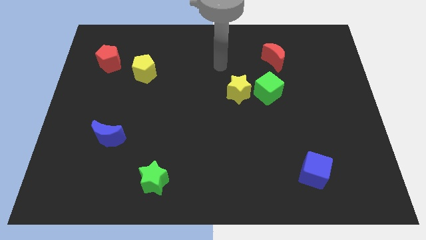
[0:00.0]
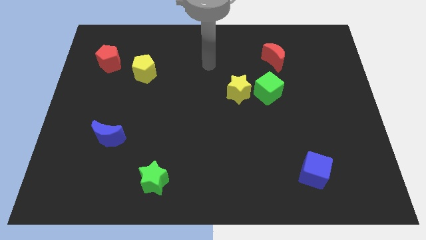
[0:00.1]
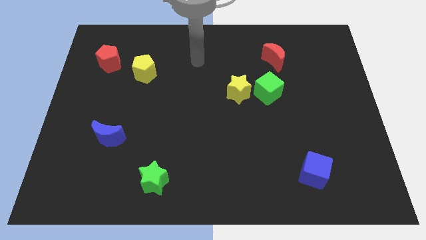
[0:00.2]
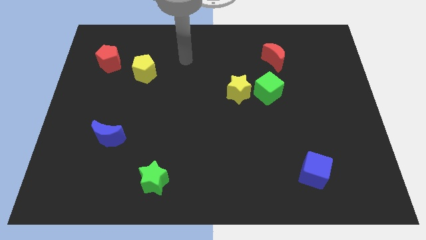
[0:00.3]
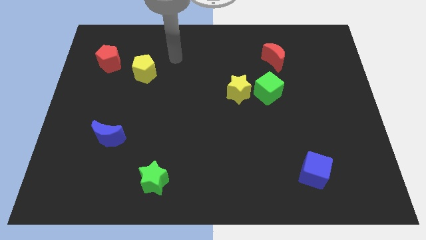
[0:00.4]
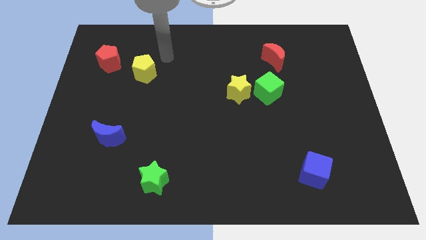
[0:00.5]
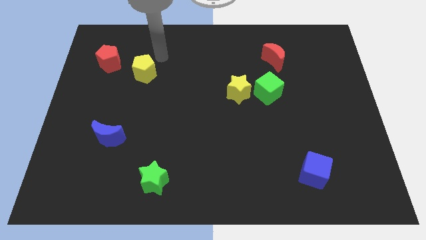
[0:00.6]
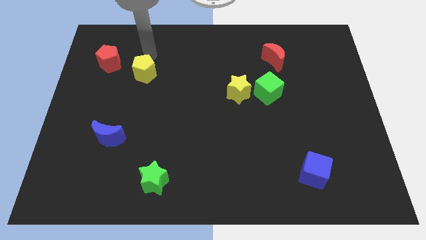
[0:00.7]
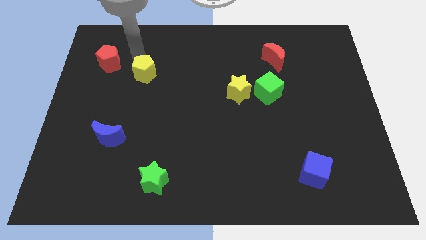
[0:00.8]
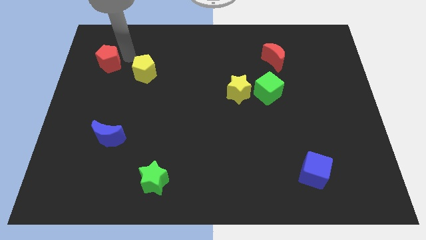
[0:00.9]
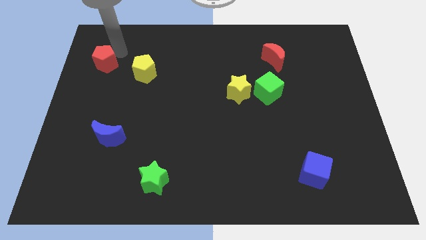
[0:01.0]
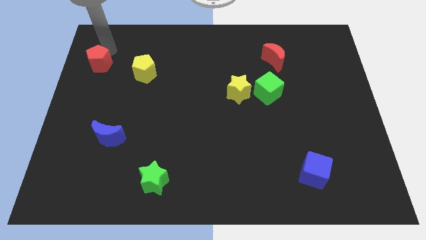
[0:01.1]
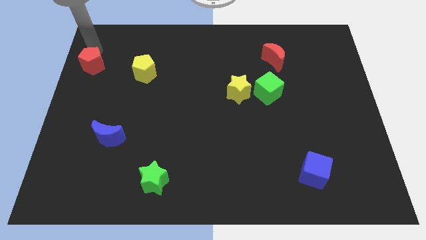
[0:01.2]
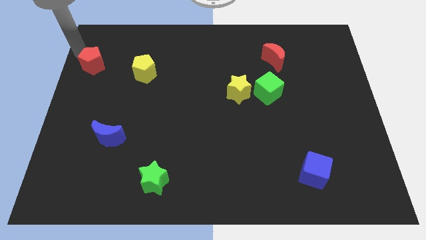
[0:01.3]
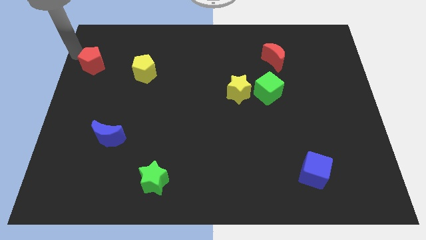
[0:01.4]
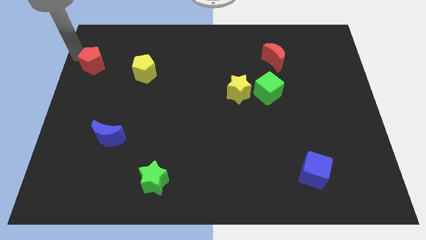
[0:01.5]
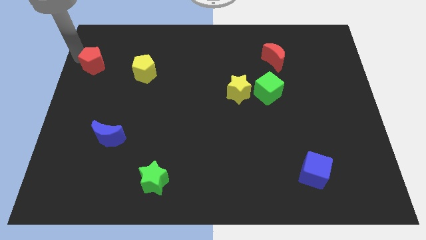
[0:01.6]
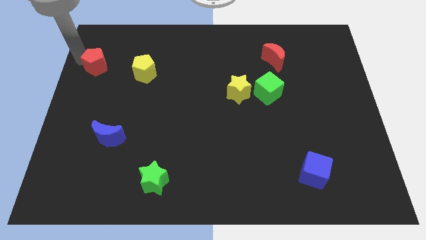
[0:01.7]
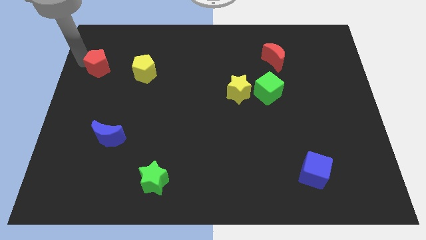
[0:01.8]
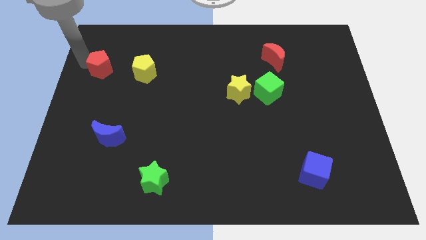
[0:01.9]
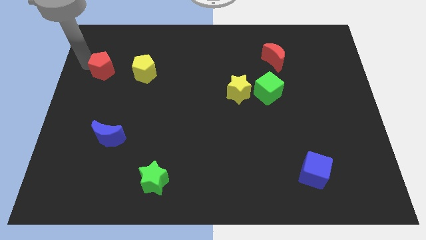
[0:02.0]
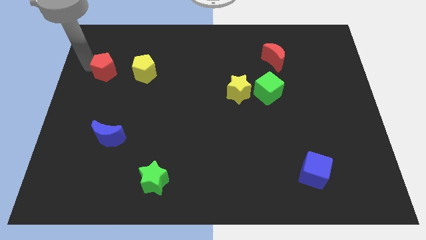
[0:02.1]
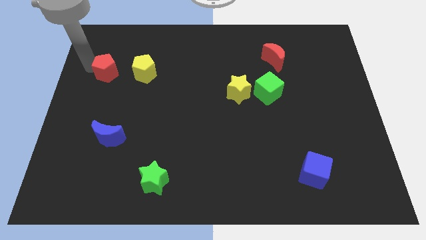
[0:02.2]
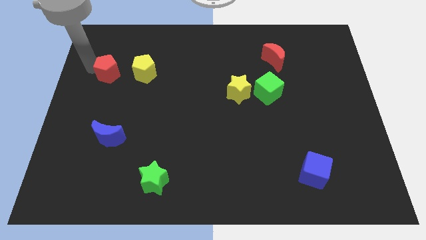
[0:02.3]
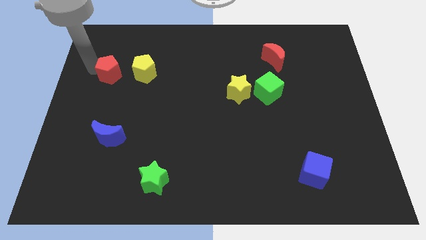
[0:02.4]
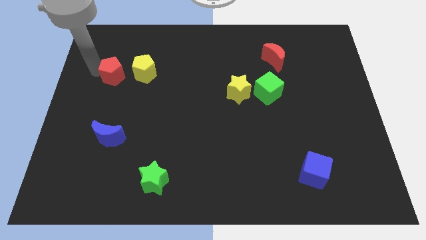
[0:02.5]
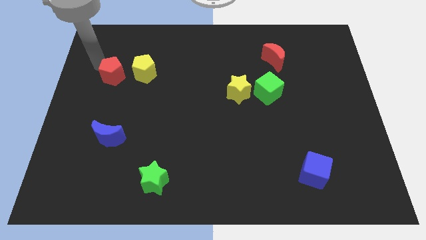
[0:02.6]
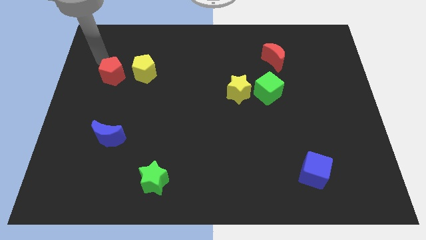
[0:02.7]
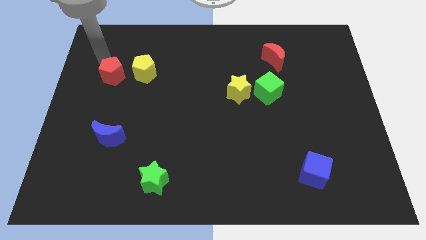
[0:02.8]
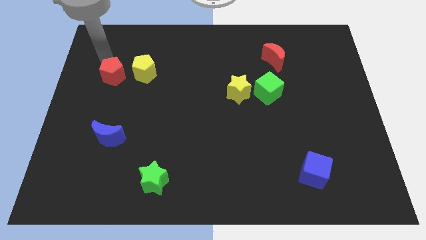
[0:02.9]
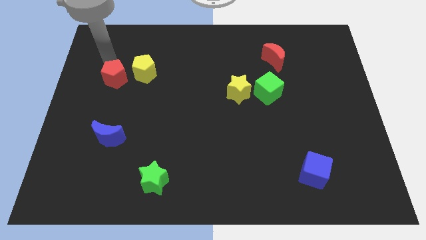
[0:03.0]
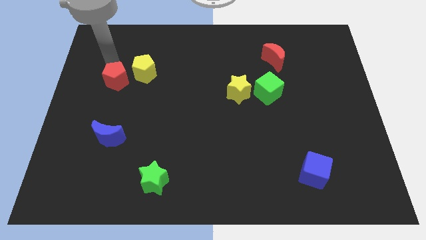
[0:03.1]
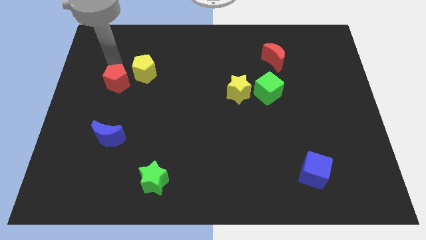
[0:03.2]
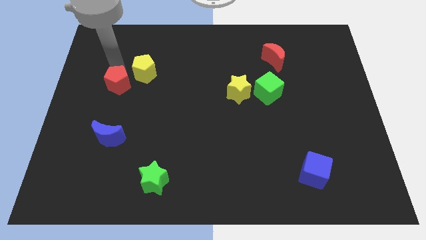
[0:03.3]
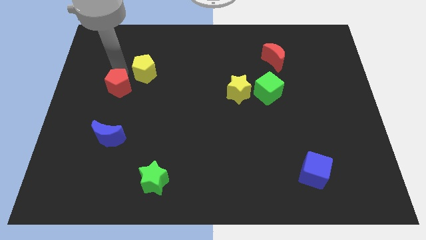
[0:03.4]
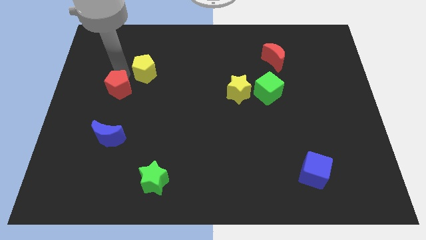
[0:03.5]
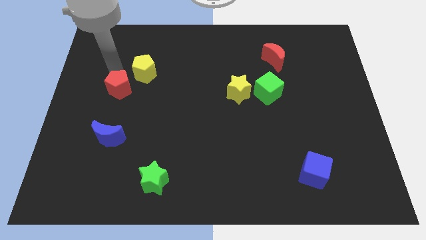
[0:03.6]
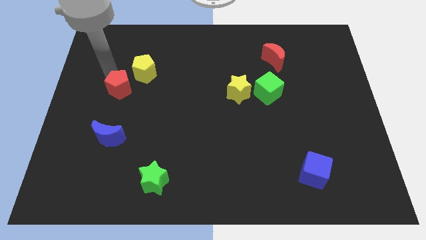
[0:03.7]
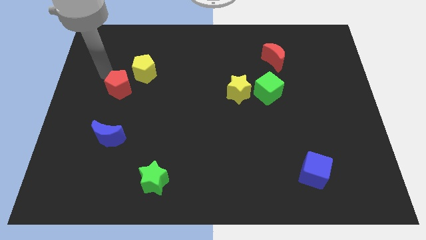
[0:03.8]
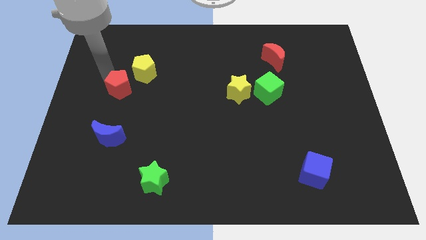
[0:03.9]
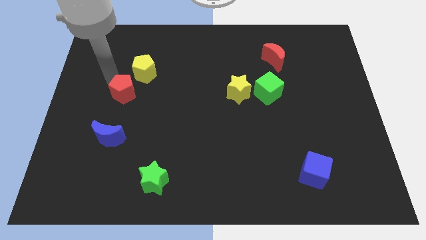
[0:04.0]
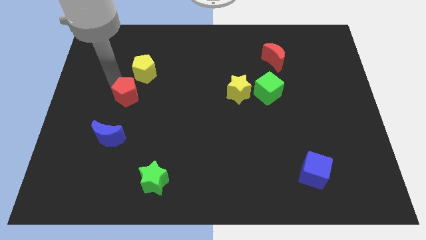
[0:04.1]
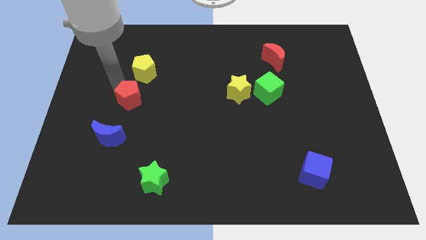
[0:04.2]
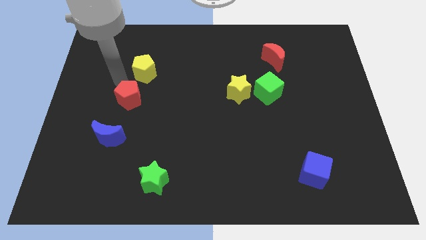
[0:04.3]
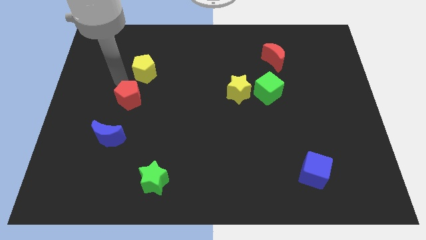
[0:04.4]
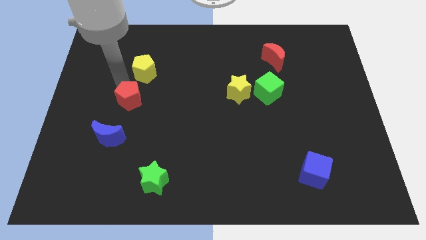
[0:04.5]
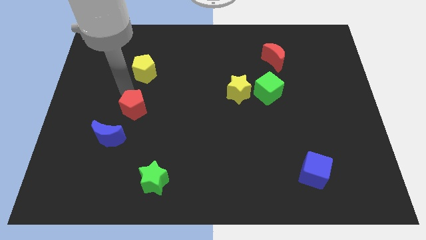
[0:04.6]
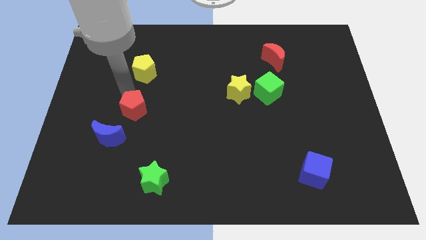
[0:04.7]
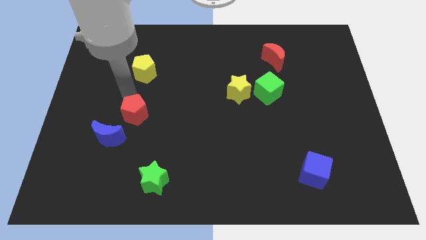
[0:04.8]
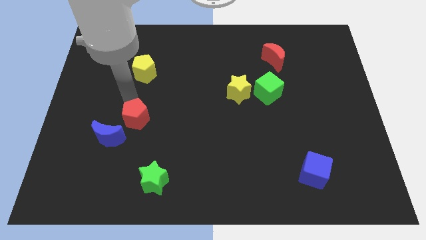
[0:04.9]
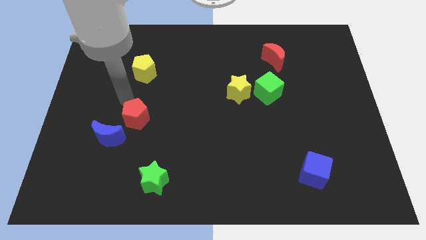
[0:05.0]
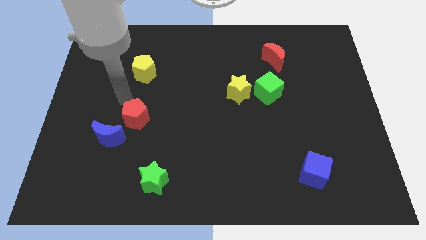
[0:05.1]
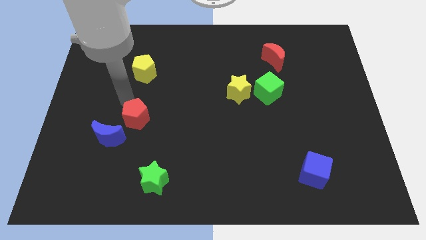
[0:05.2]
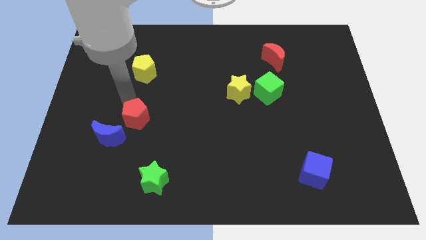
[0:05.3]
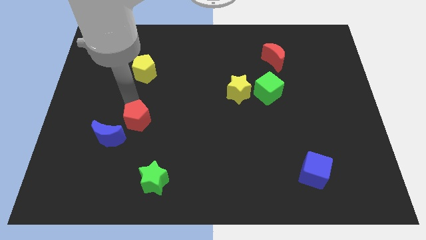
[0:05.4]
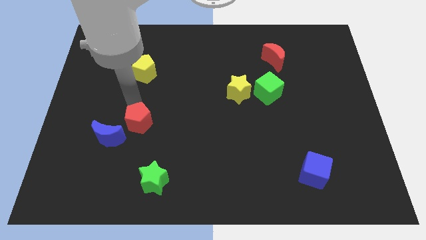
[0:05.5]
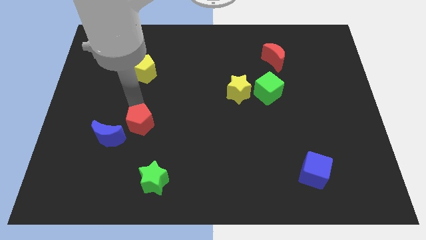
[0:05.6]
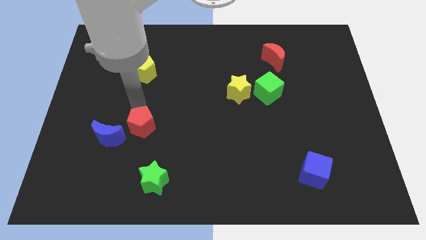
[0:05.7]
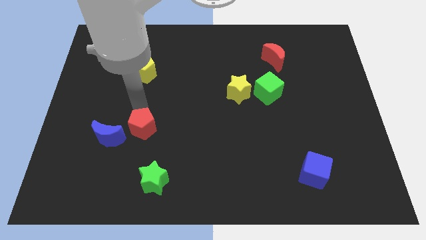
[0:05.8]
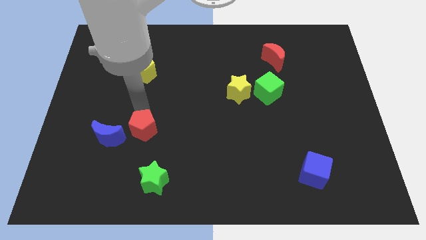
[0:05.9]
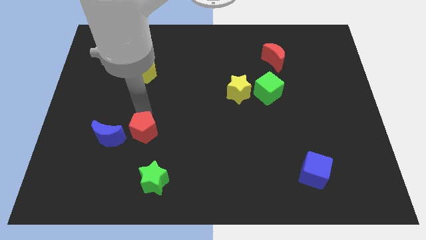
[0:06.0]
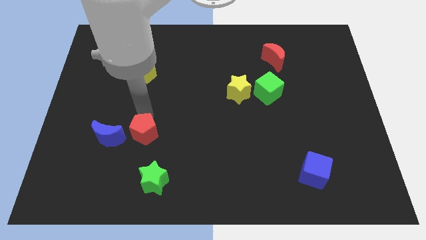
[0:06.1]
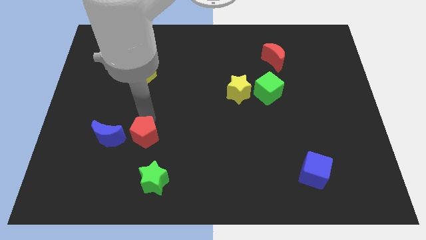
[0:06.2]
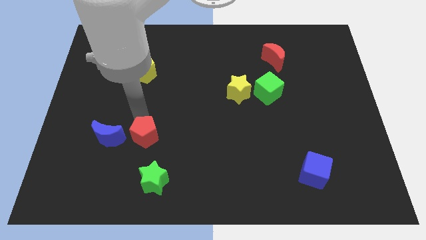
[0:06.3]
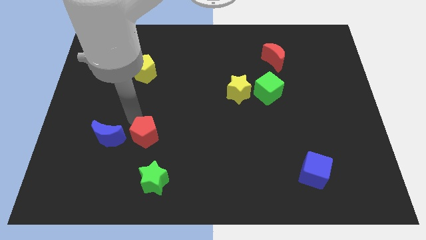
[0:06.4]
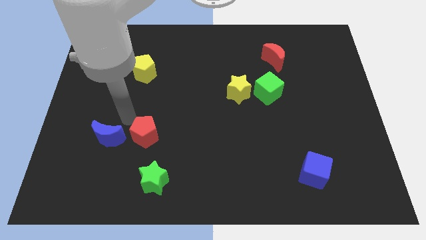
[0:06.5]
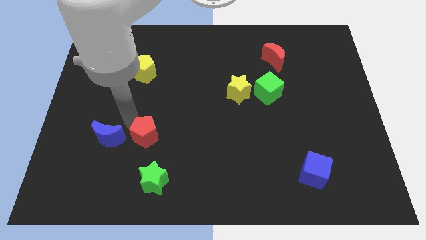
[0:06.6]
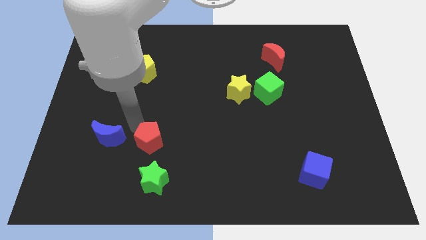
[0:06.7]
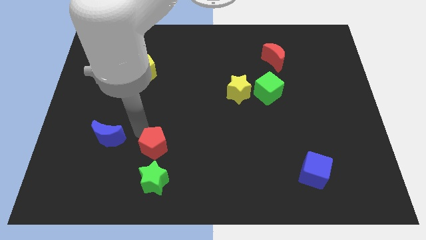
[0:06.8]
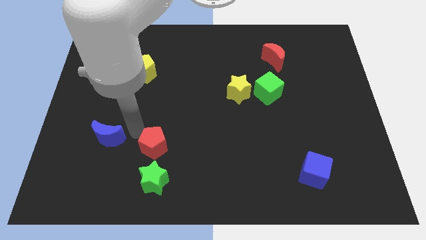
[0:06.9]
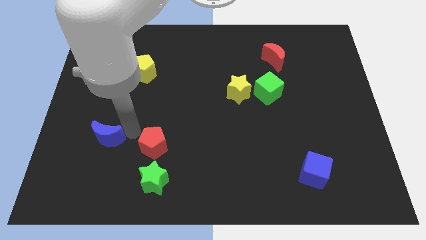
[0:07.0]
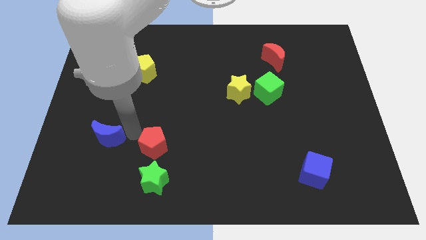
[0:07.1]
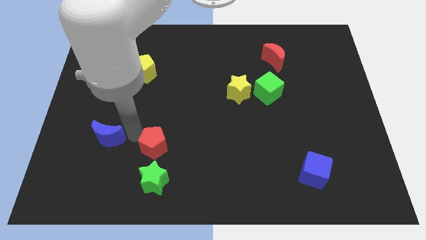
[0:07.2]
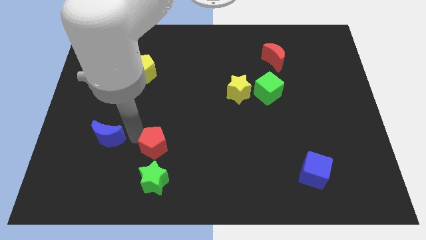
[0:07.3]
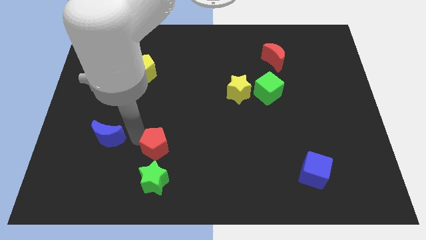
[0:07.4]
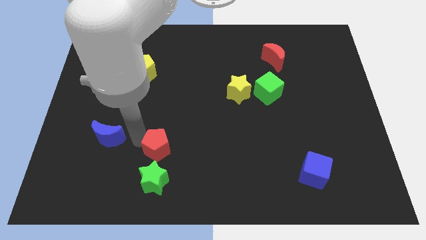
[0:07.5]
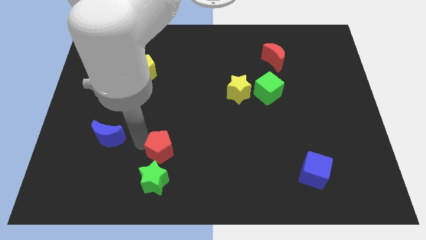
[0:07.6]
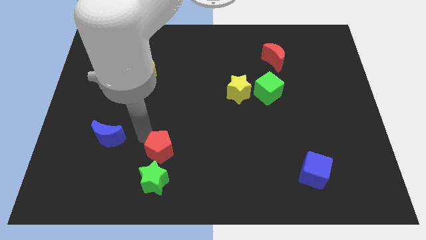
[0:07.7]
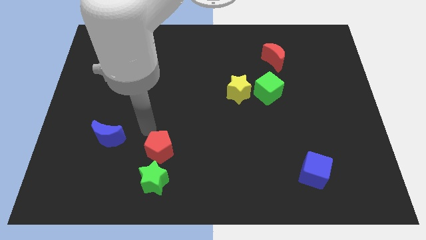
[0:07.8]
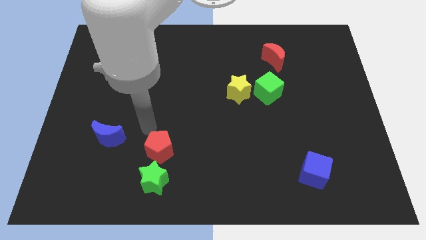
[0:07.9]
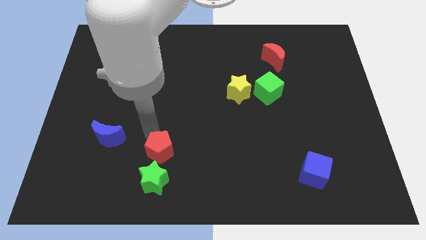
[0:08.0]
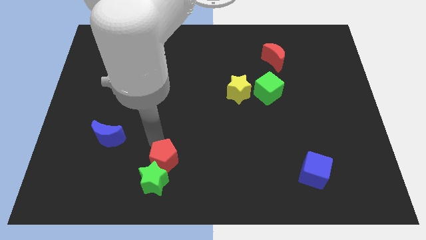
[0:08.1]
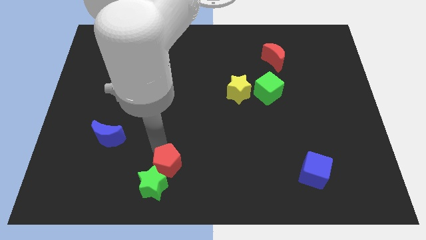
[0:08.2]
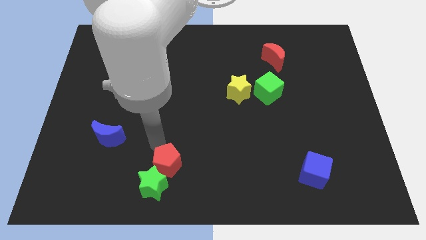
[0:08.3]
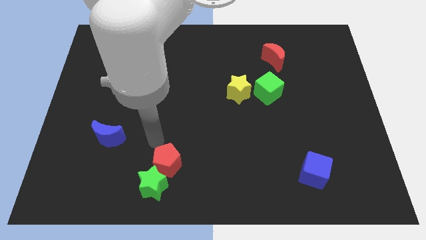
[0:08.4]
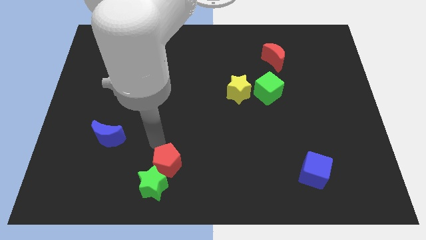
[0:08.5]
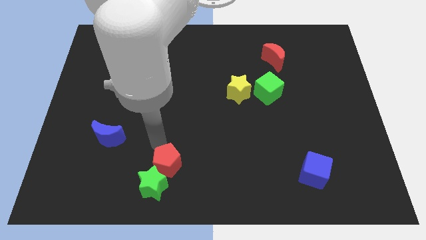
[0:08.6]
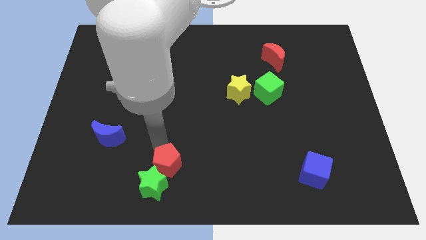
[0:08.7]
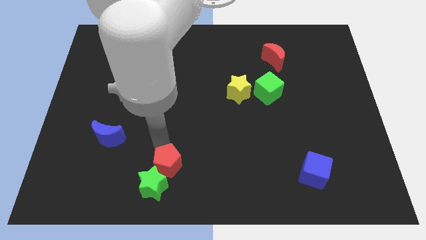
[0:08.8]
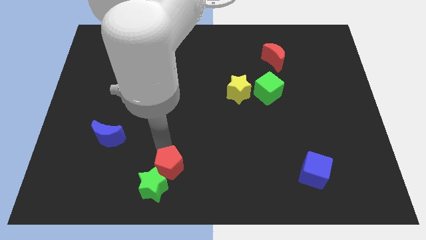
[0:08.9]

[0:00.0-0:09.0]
put the red pentagon to the bottom side
